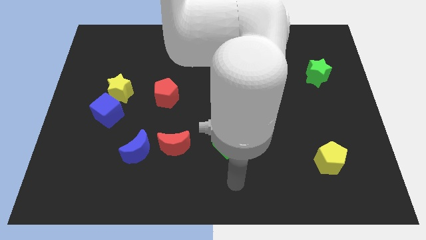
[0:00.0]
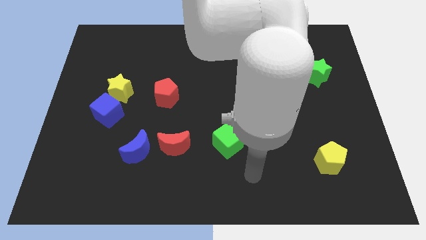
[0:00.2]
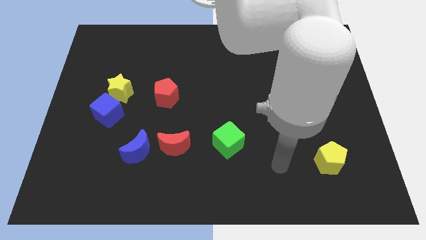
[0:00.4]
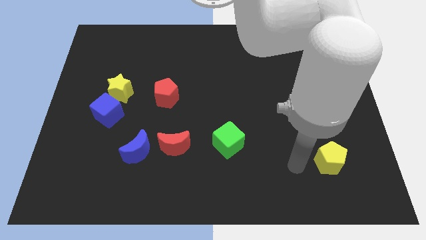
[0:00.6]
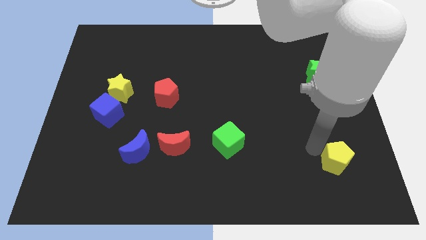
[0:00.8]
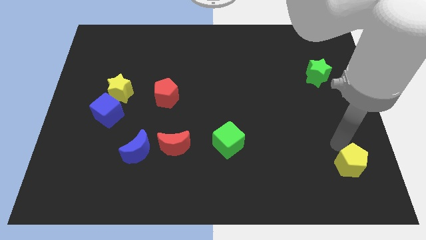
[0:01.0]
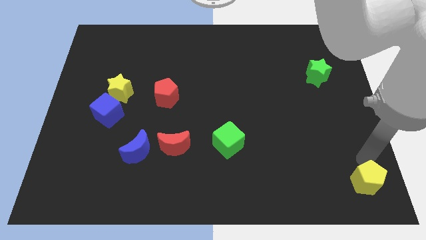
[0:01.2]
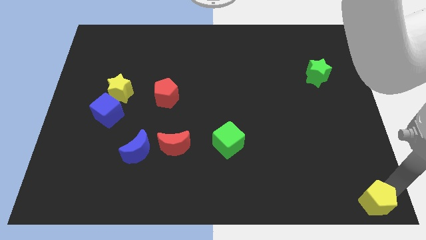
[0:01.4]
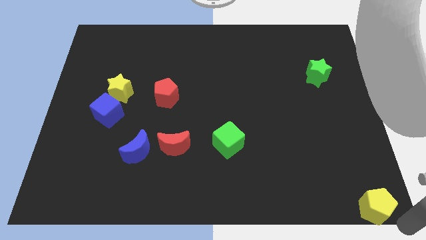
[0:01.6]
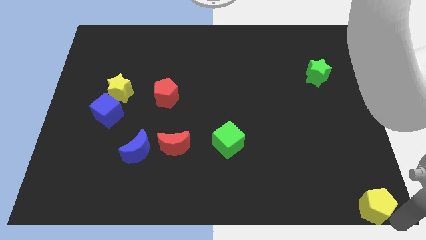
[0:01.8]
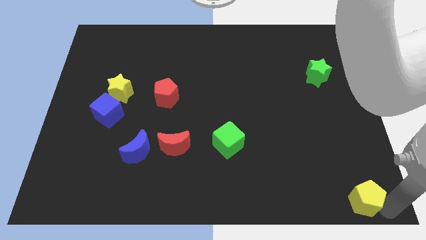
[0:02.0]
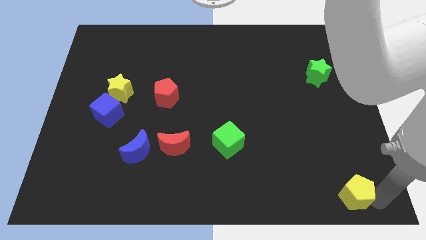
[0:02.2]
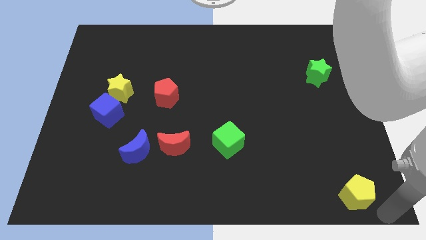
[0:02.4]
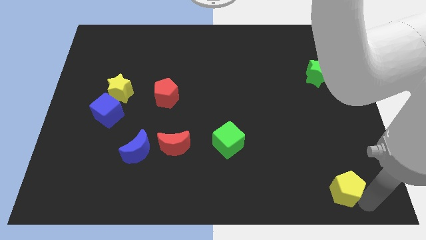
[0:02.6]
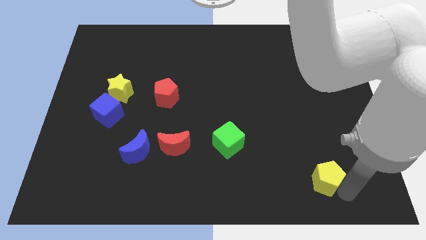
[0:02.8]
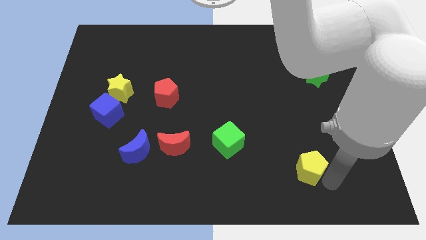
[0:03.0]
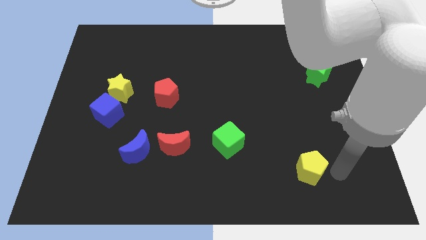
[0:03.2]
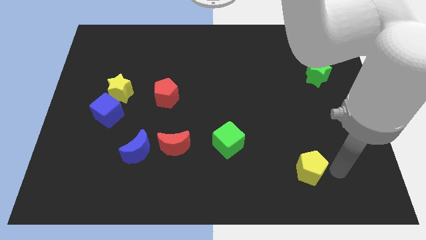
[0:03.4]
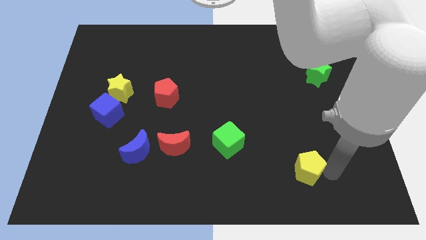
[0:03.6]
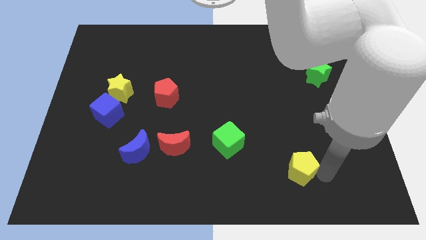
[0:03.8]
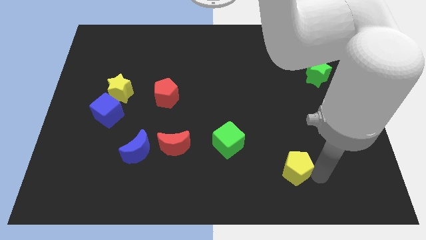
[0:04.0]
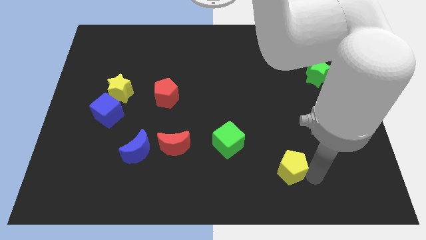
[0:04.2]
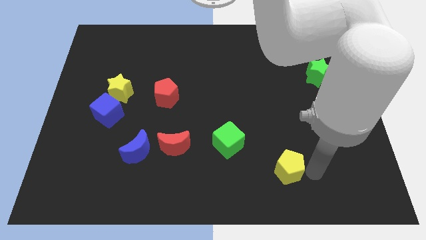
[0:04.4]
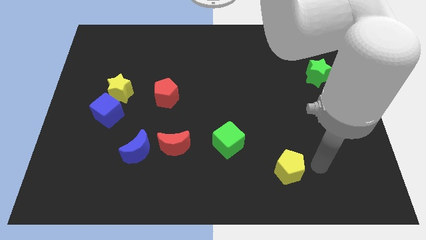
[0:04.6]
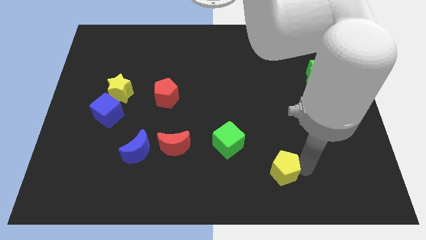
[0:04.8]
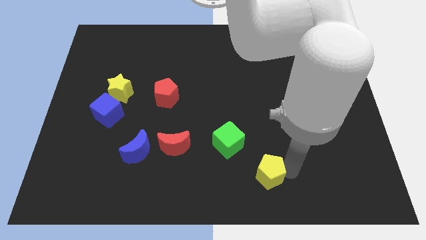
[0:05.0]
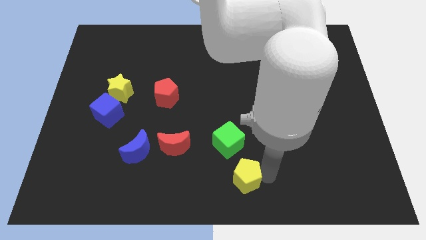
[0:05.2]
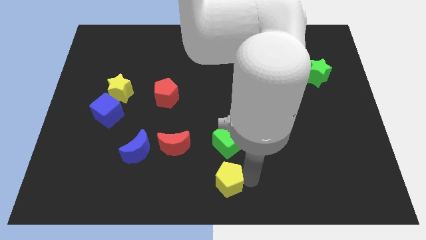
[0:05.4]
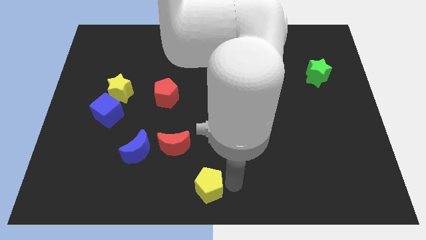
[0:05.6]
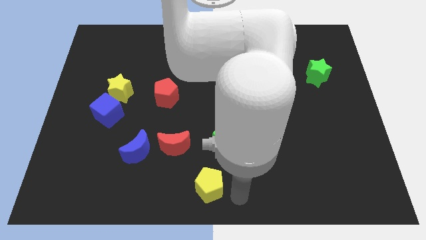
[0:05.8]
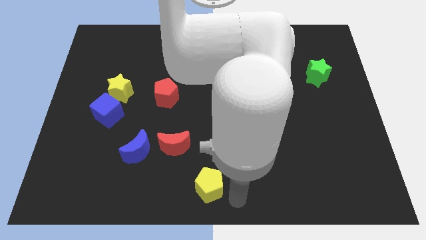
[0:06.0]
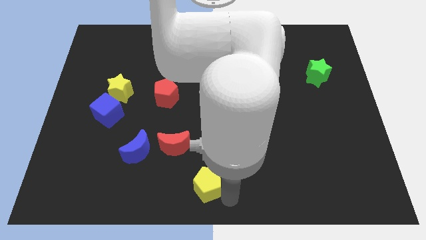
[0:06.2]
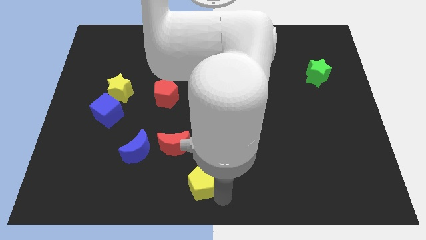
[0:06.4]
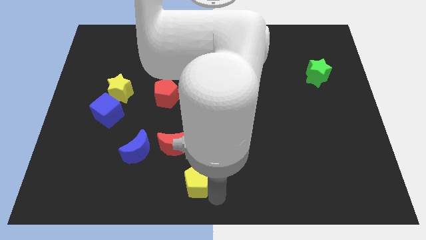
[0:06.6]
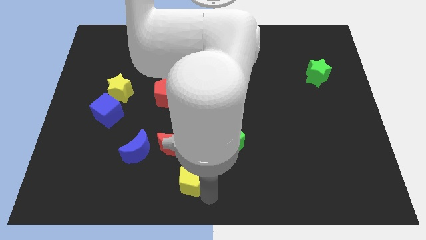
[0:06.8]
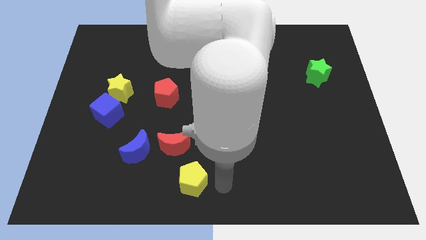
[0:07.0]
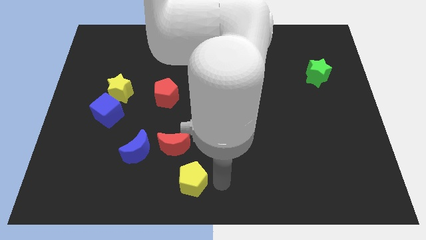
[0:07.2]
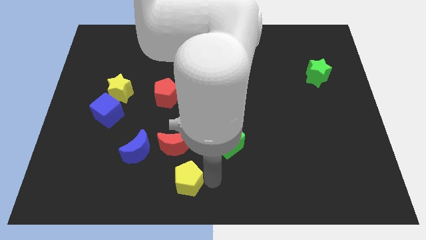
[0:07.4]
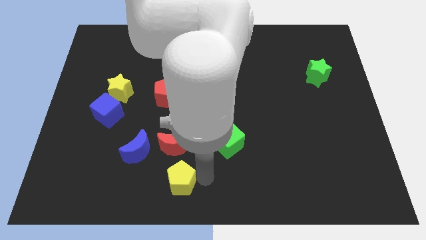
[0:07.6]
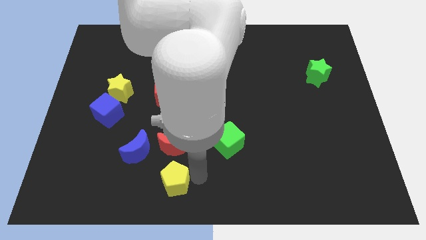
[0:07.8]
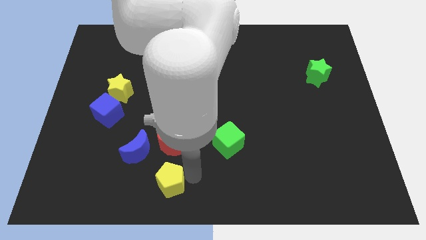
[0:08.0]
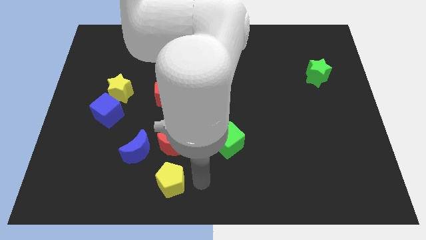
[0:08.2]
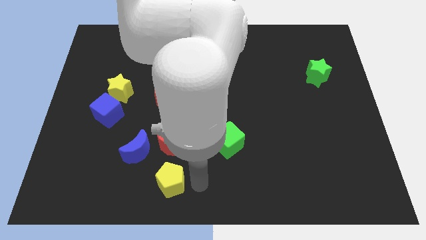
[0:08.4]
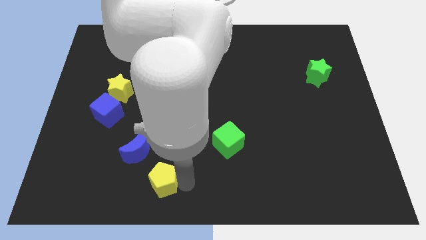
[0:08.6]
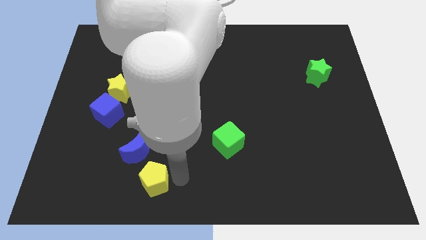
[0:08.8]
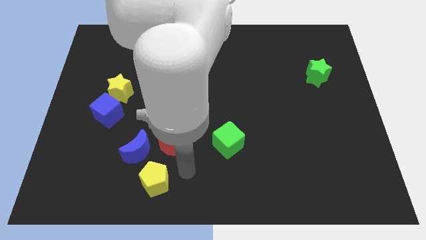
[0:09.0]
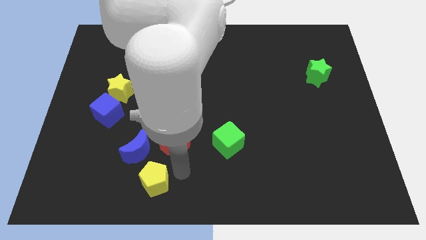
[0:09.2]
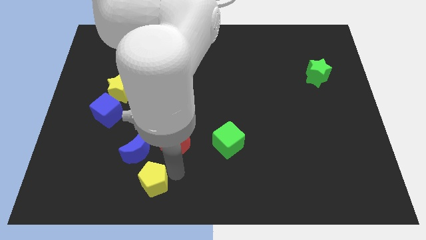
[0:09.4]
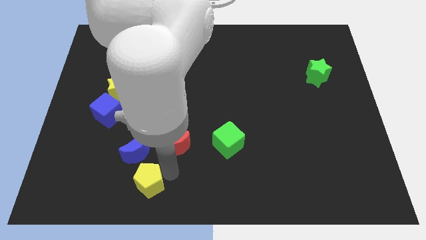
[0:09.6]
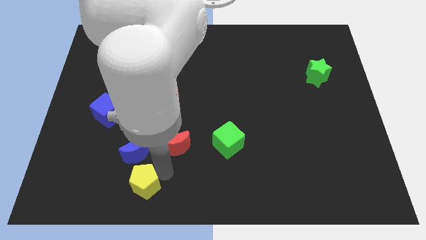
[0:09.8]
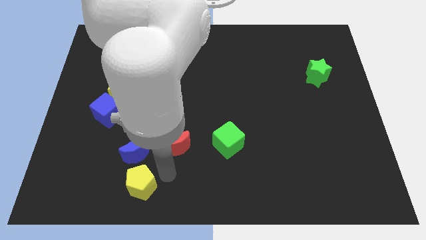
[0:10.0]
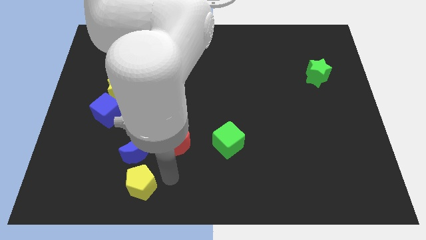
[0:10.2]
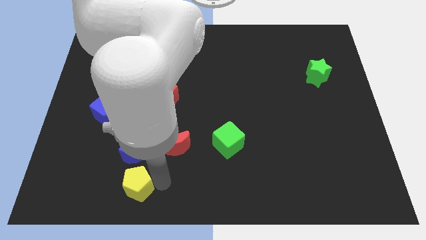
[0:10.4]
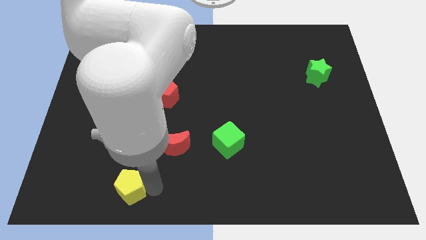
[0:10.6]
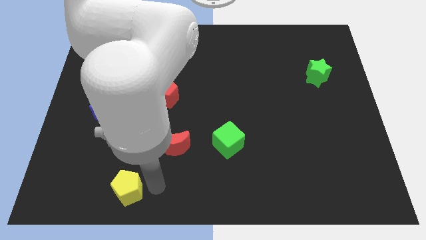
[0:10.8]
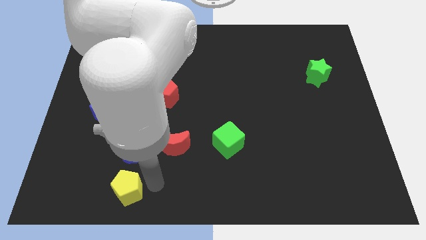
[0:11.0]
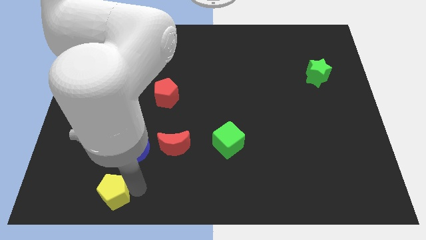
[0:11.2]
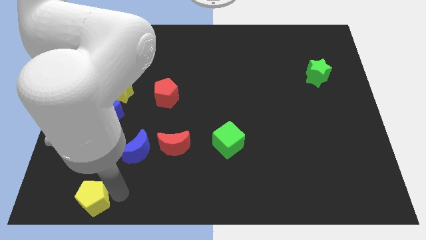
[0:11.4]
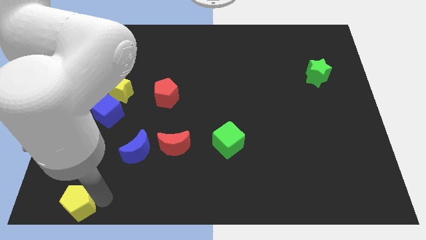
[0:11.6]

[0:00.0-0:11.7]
slide the yellow pentagon to the bottom left

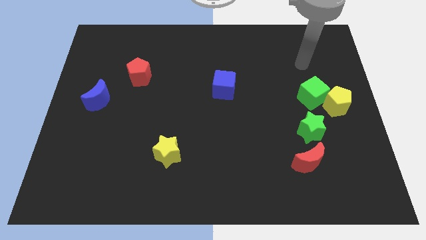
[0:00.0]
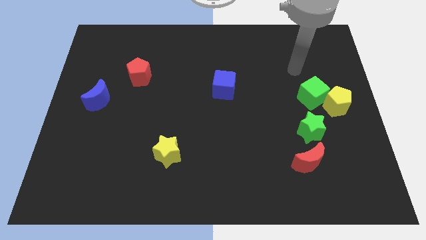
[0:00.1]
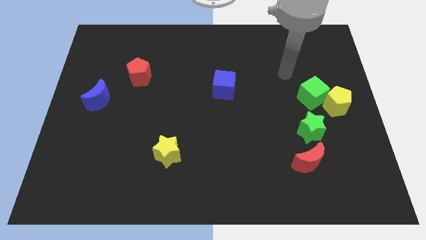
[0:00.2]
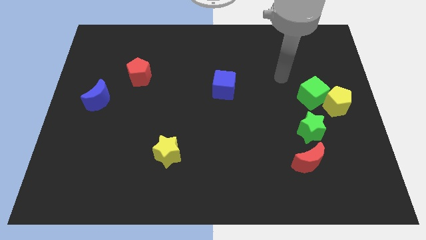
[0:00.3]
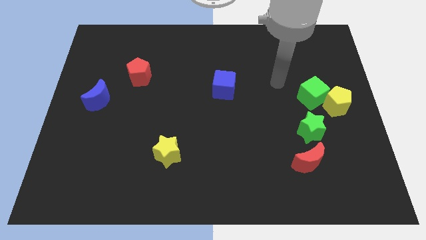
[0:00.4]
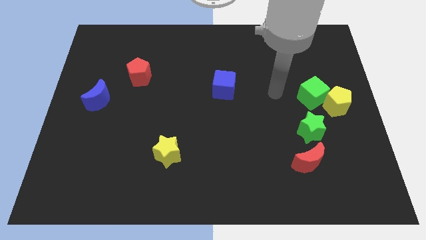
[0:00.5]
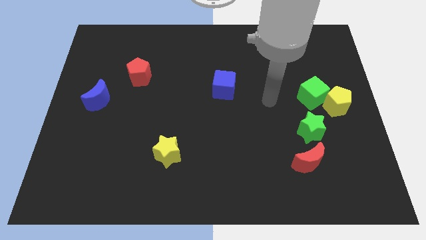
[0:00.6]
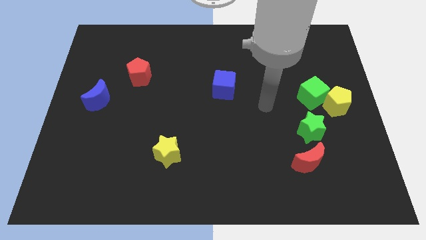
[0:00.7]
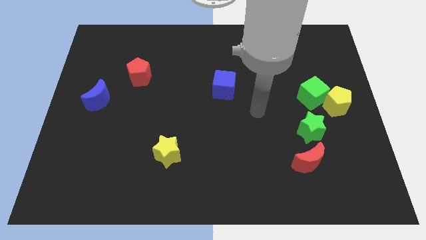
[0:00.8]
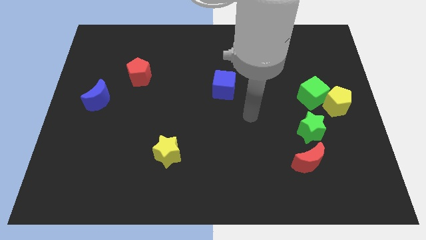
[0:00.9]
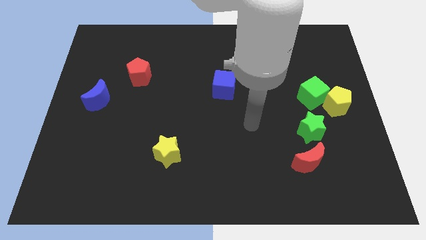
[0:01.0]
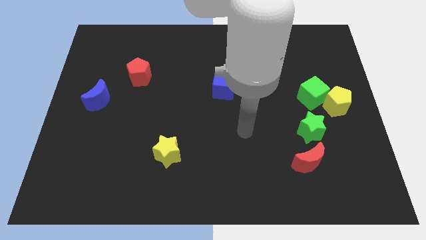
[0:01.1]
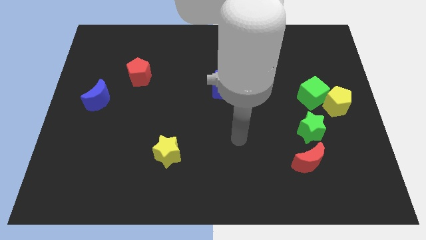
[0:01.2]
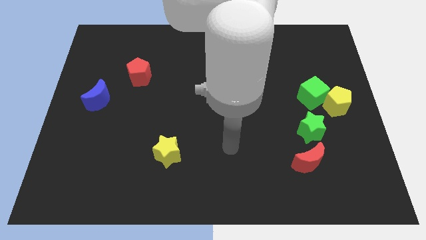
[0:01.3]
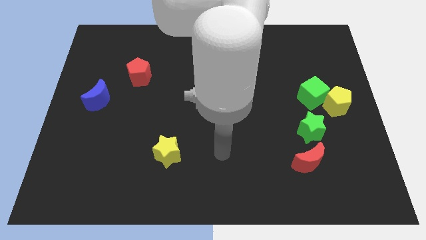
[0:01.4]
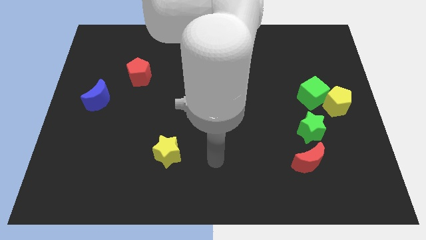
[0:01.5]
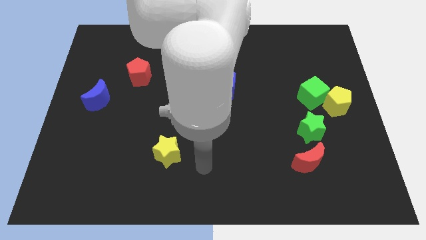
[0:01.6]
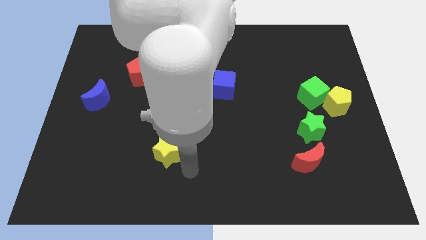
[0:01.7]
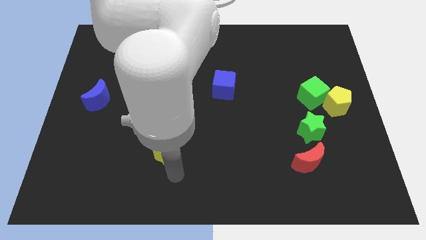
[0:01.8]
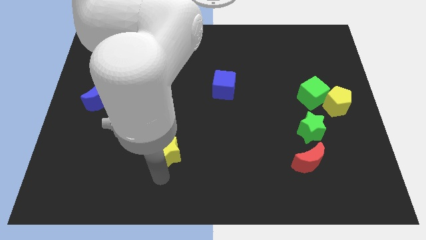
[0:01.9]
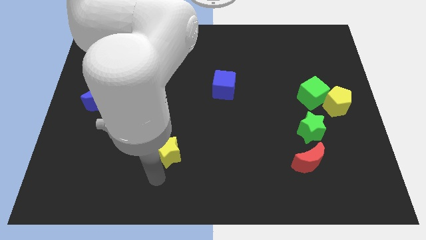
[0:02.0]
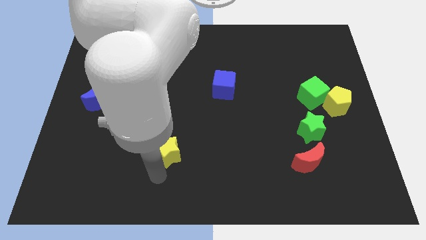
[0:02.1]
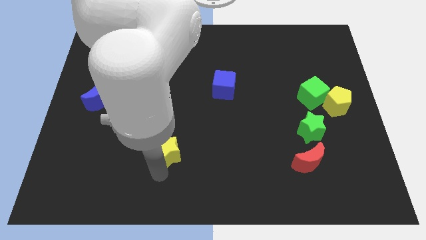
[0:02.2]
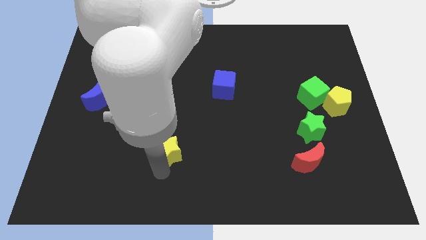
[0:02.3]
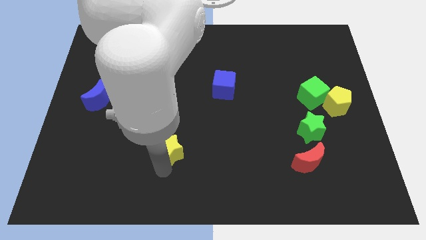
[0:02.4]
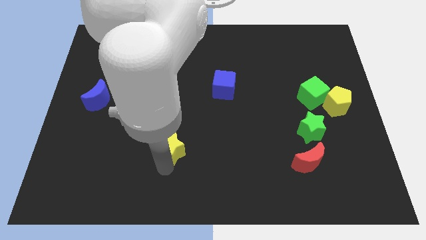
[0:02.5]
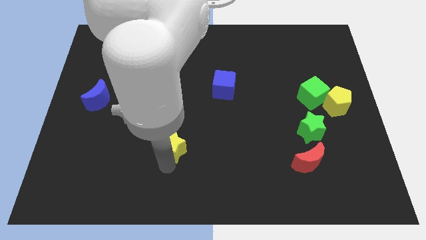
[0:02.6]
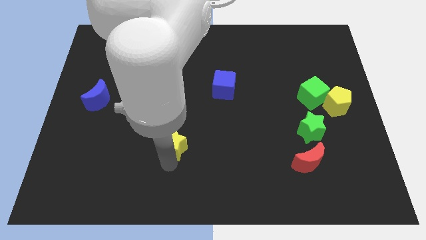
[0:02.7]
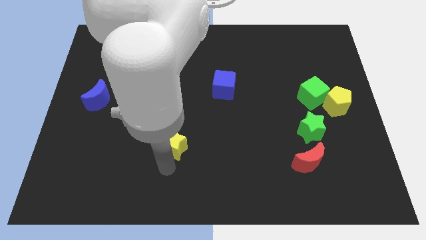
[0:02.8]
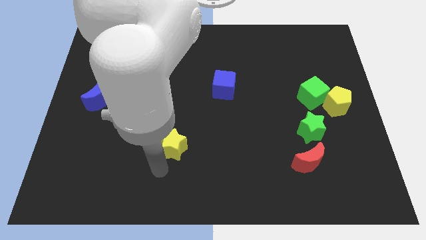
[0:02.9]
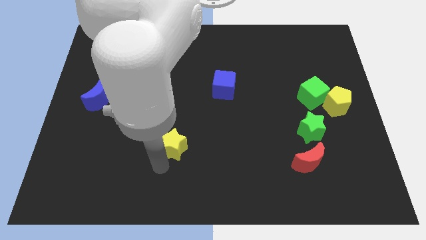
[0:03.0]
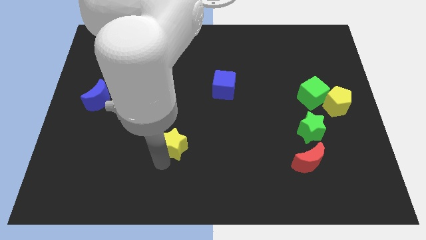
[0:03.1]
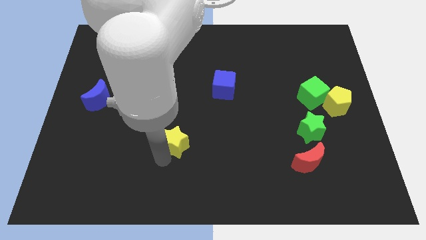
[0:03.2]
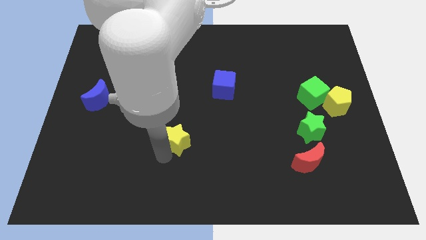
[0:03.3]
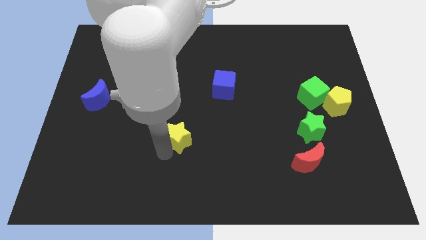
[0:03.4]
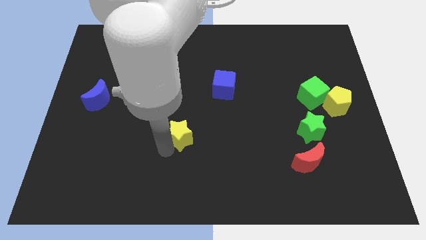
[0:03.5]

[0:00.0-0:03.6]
push the yellow star to the center
